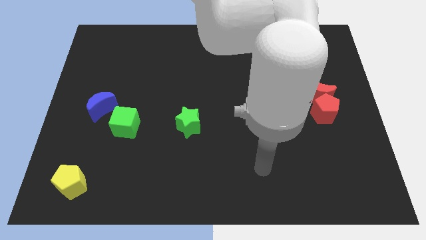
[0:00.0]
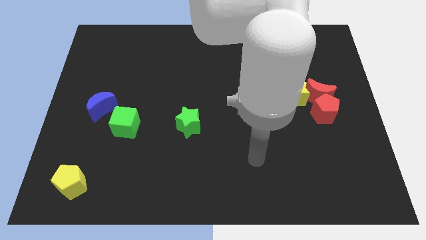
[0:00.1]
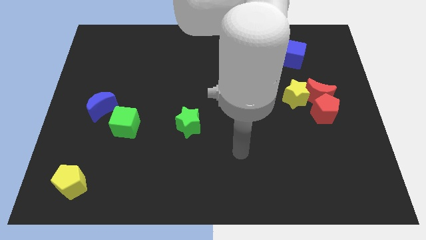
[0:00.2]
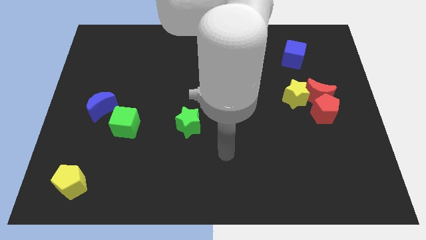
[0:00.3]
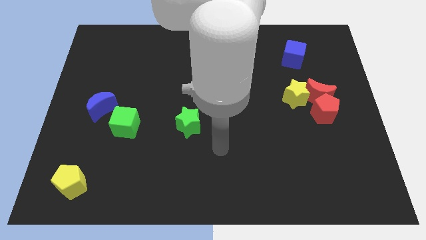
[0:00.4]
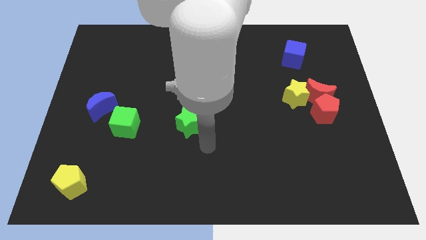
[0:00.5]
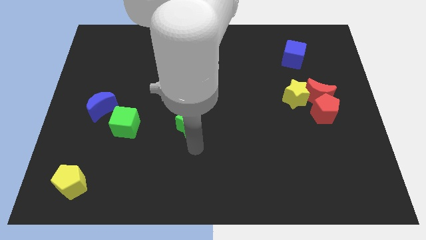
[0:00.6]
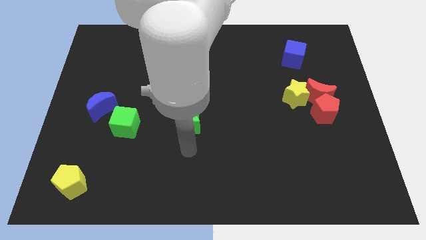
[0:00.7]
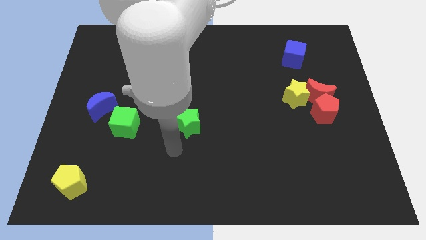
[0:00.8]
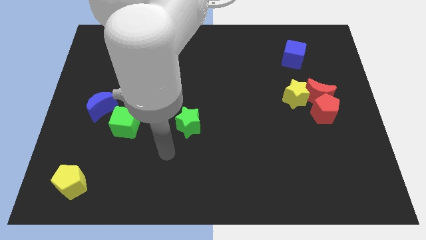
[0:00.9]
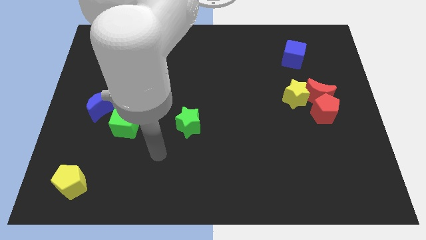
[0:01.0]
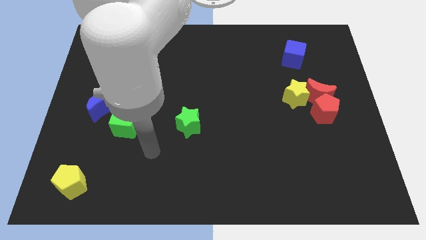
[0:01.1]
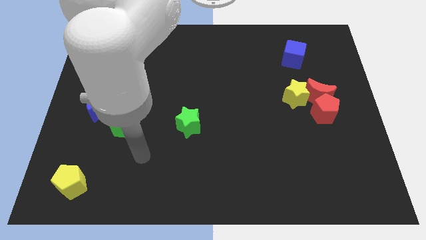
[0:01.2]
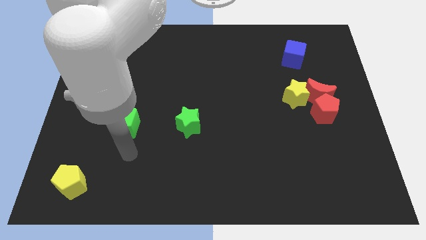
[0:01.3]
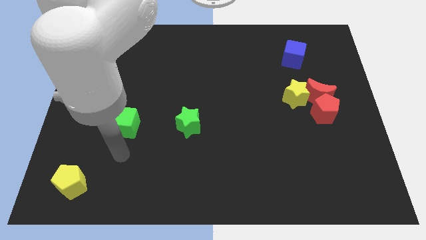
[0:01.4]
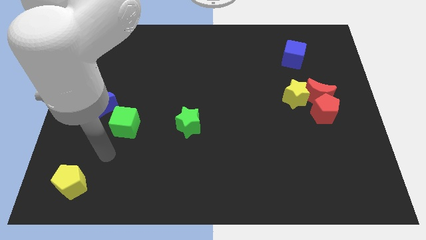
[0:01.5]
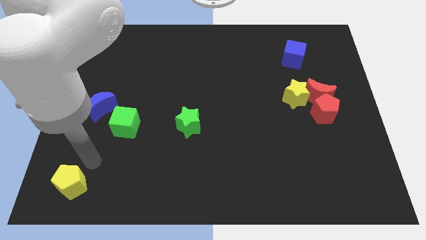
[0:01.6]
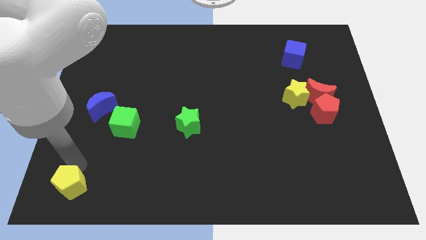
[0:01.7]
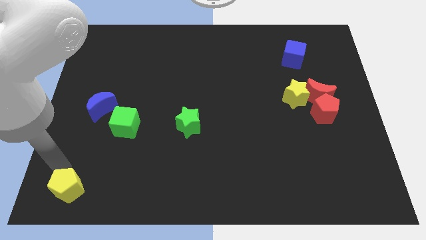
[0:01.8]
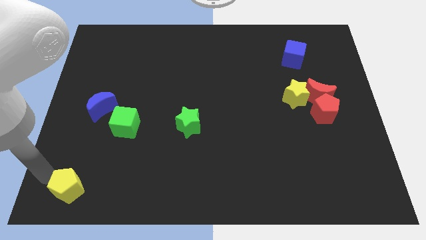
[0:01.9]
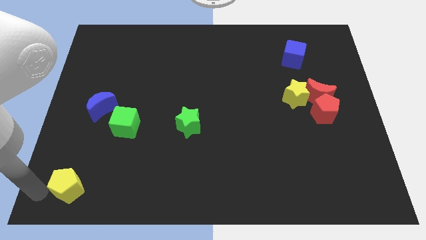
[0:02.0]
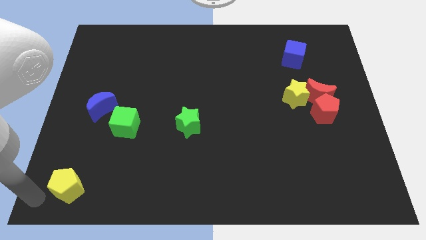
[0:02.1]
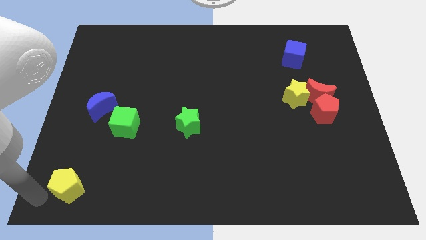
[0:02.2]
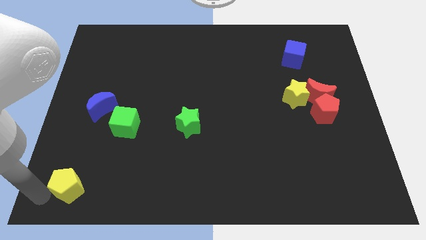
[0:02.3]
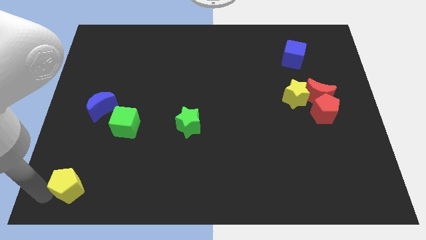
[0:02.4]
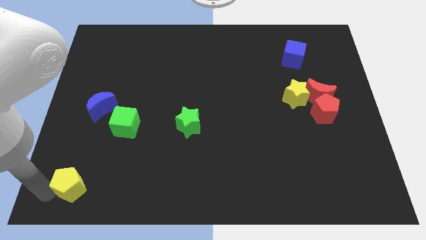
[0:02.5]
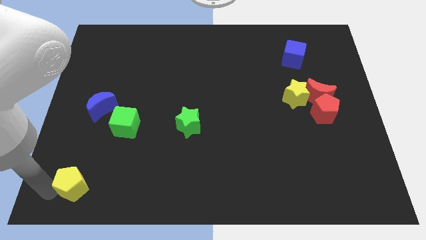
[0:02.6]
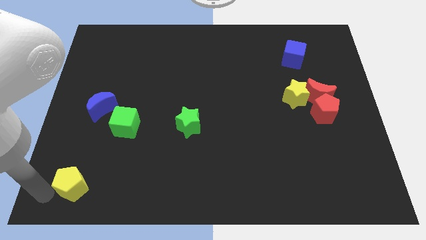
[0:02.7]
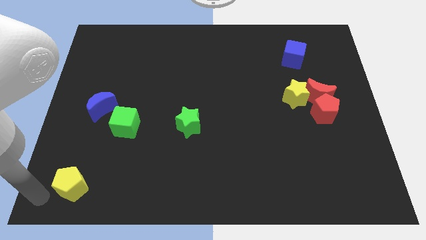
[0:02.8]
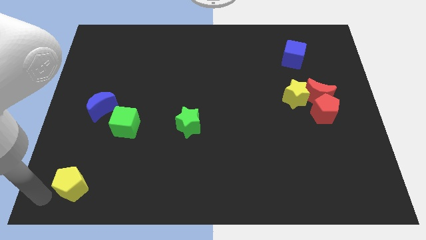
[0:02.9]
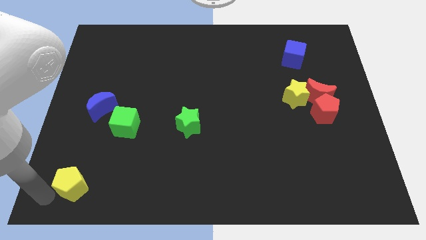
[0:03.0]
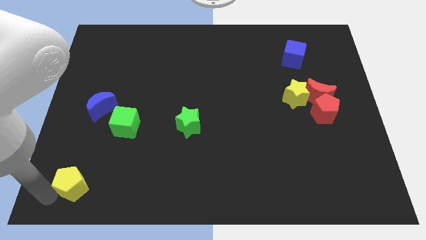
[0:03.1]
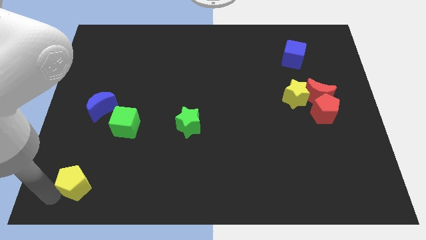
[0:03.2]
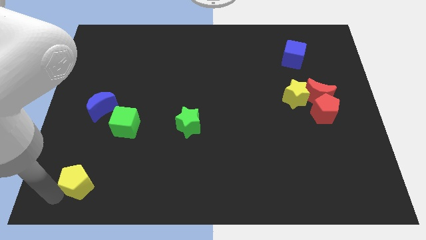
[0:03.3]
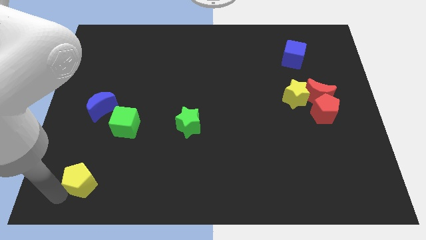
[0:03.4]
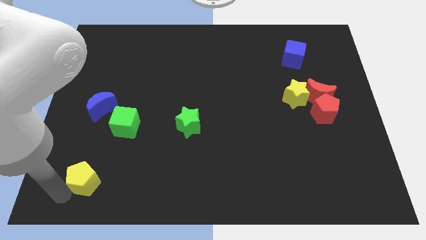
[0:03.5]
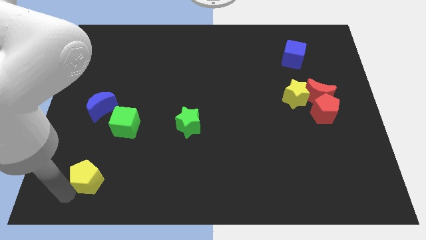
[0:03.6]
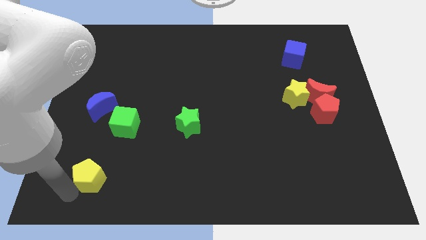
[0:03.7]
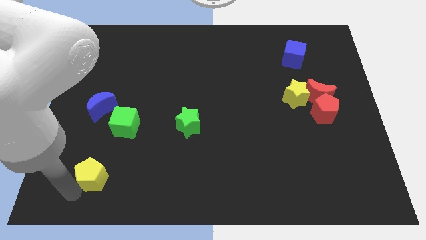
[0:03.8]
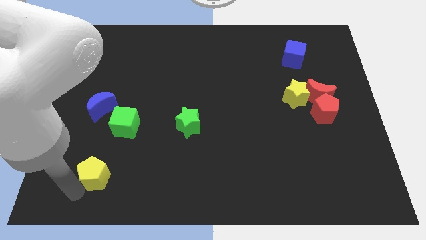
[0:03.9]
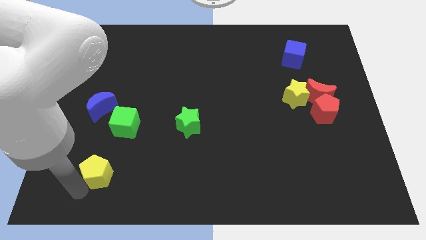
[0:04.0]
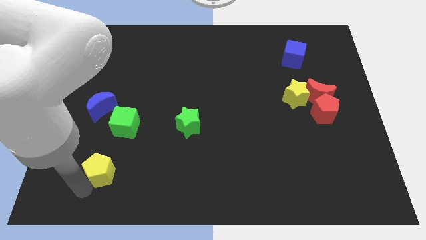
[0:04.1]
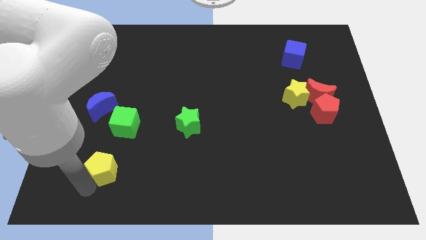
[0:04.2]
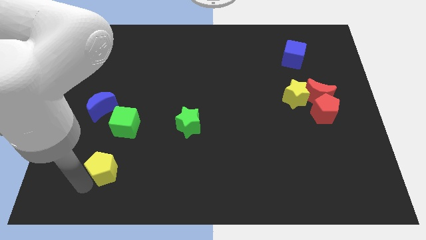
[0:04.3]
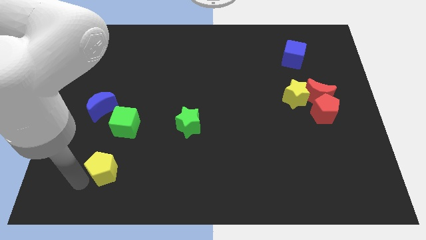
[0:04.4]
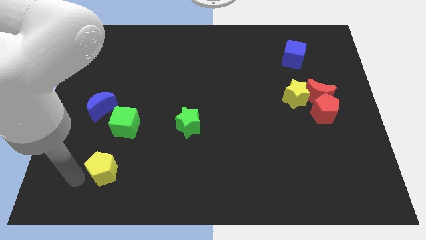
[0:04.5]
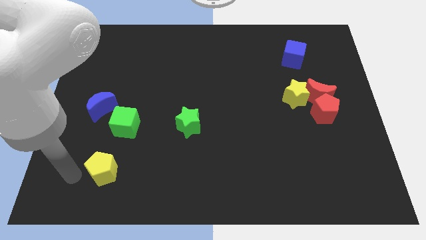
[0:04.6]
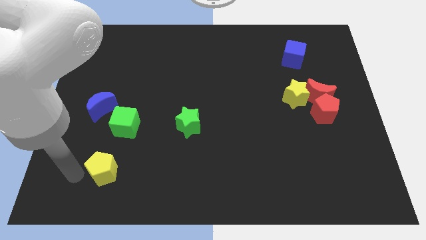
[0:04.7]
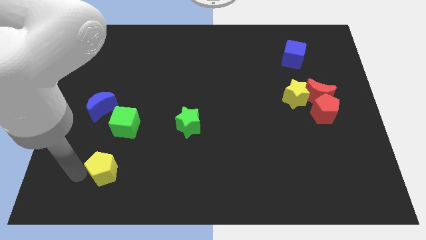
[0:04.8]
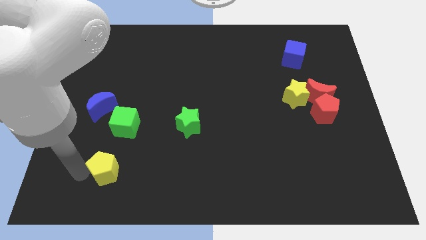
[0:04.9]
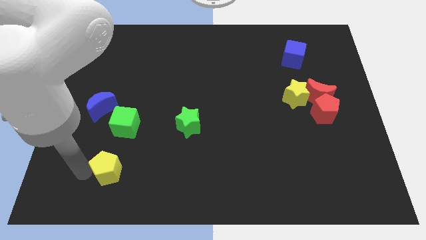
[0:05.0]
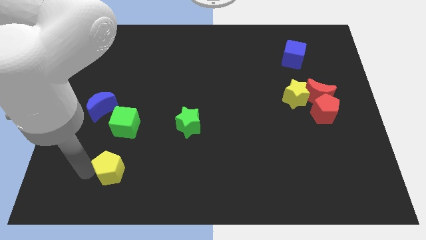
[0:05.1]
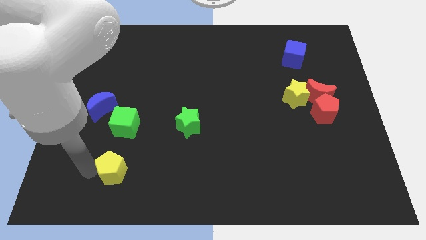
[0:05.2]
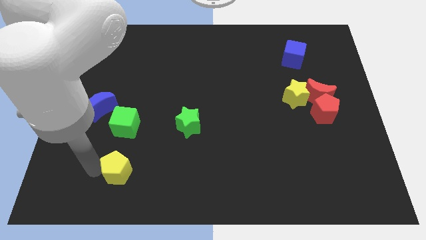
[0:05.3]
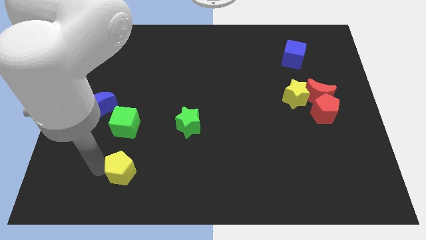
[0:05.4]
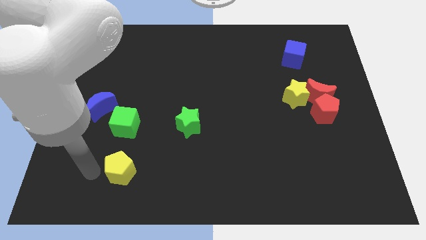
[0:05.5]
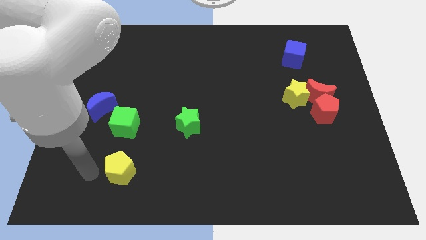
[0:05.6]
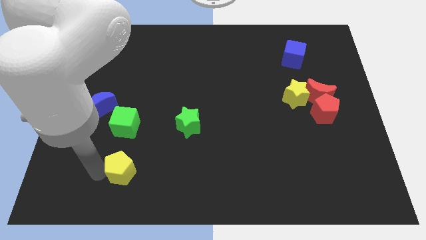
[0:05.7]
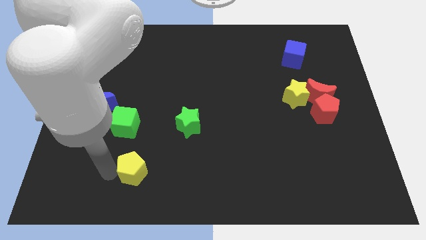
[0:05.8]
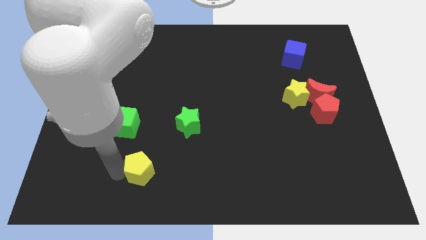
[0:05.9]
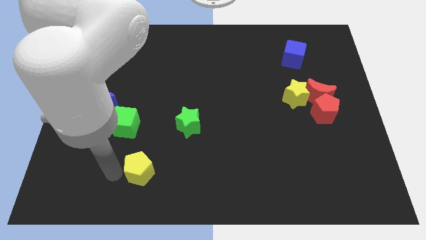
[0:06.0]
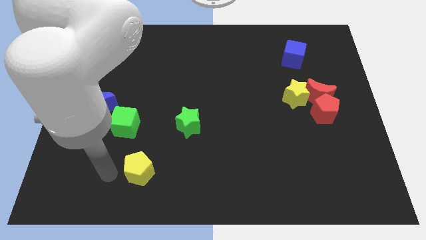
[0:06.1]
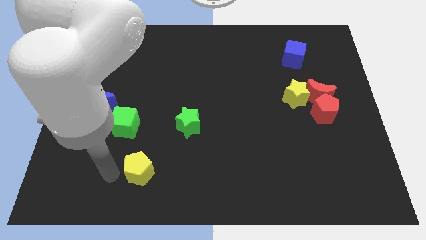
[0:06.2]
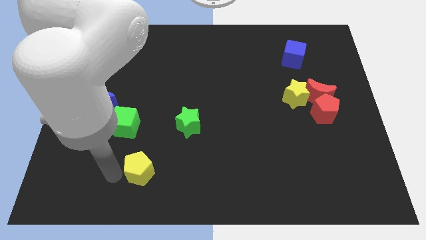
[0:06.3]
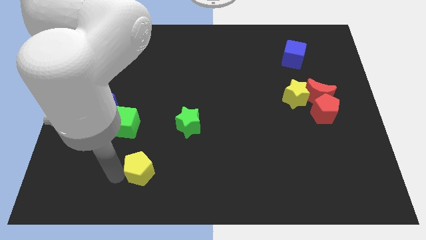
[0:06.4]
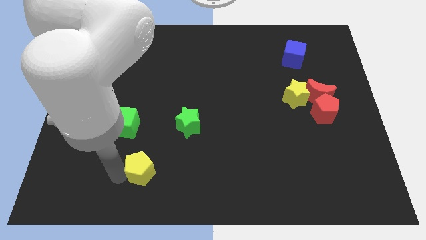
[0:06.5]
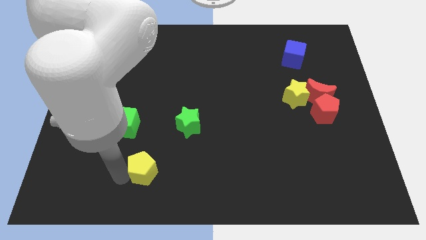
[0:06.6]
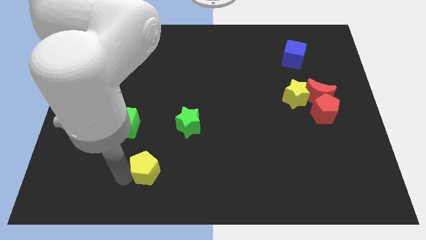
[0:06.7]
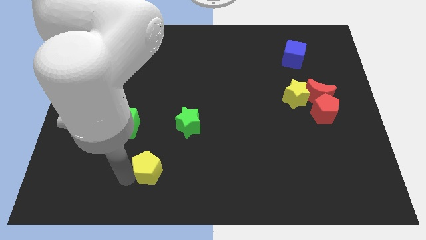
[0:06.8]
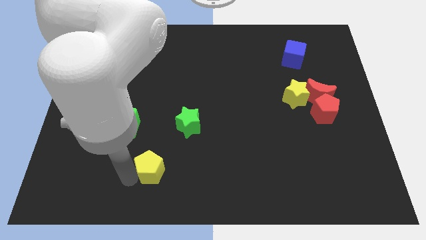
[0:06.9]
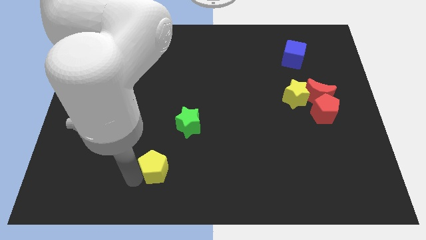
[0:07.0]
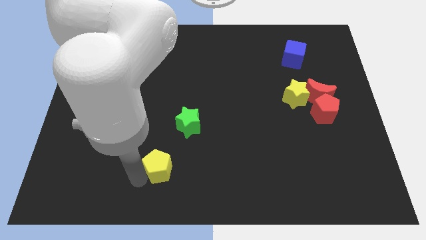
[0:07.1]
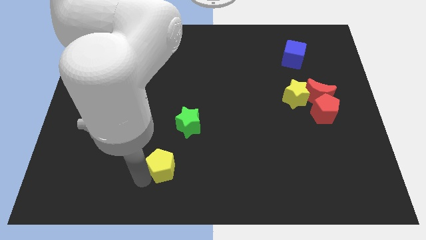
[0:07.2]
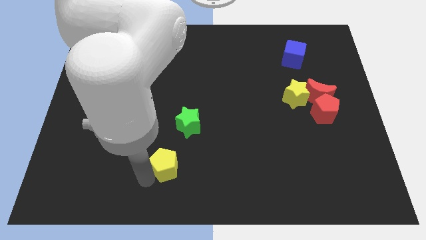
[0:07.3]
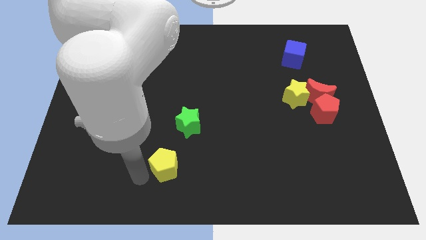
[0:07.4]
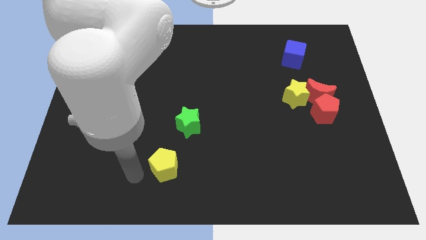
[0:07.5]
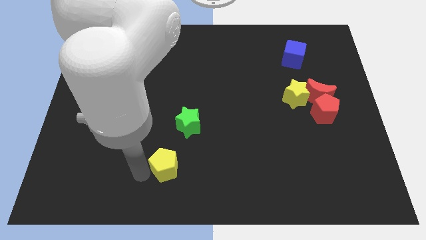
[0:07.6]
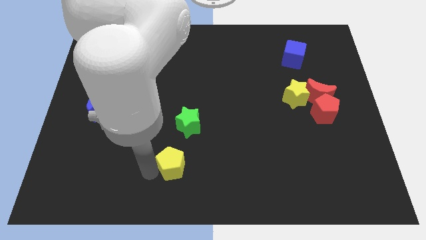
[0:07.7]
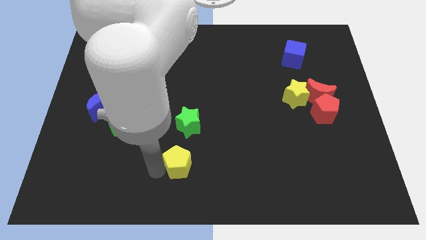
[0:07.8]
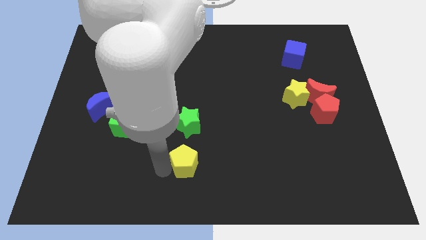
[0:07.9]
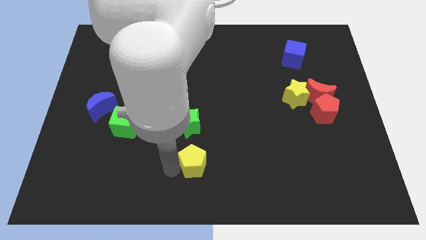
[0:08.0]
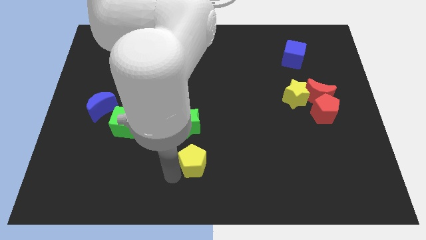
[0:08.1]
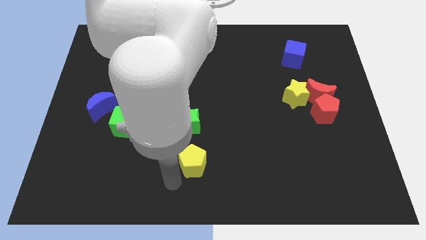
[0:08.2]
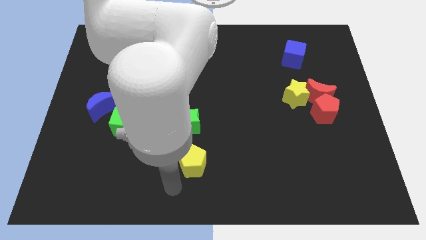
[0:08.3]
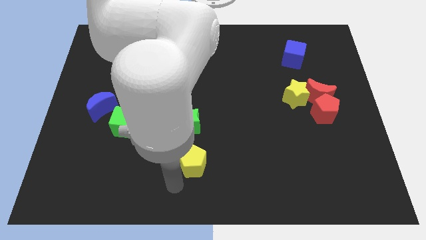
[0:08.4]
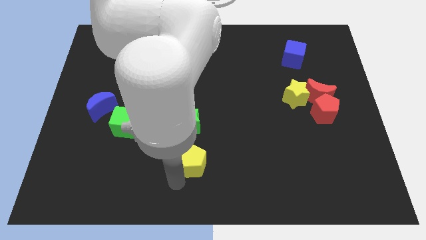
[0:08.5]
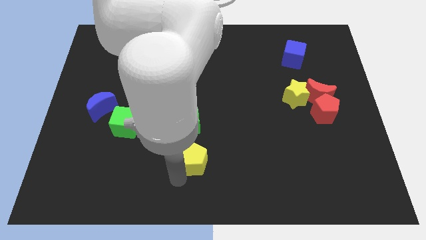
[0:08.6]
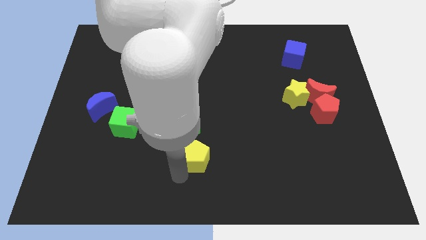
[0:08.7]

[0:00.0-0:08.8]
push the yellow pentagon to the bottom right side of the green star
